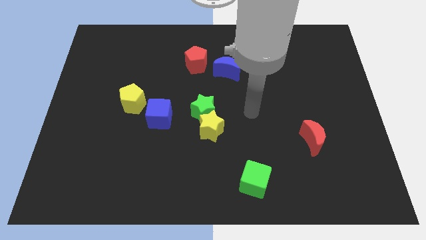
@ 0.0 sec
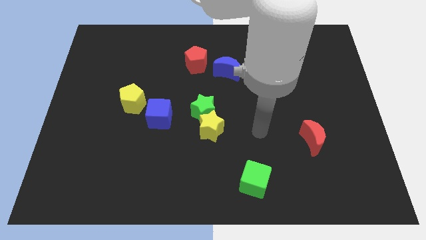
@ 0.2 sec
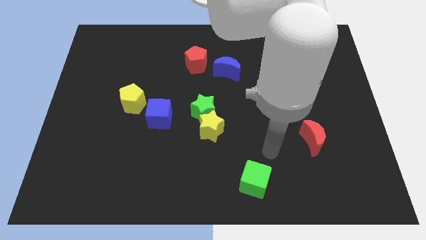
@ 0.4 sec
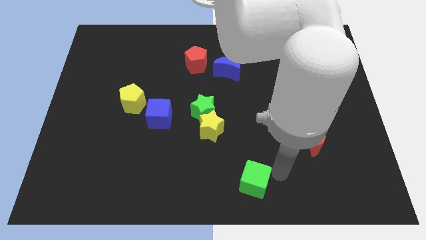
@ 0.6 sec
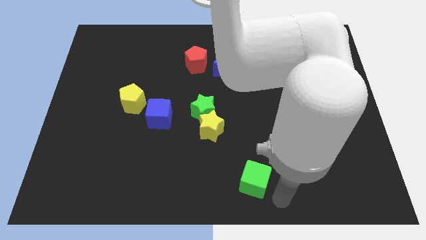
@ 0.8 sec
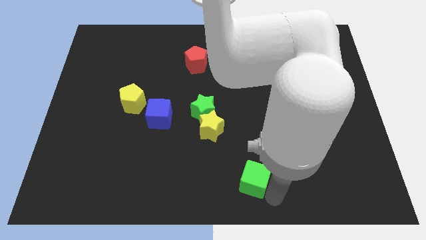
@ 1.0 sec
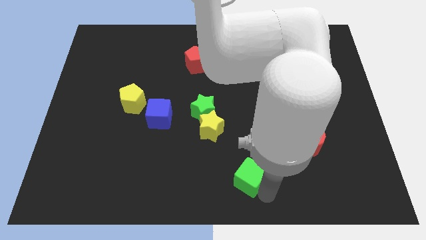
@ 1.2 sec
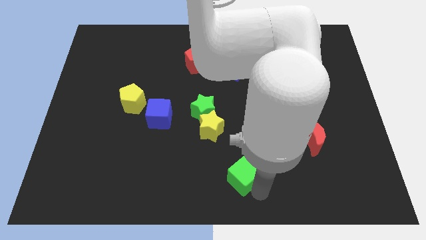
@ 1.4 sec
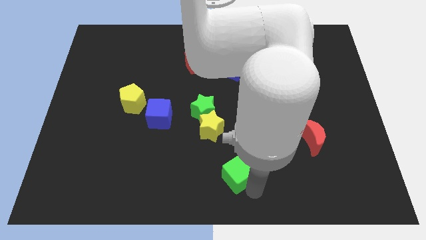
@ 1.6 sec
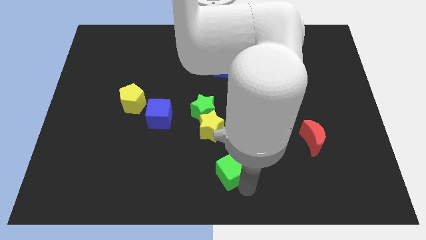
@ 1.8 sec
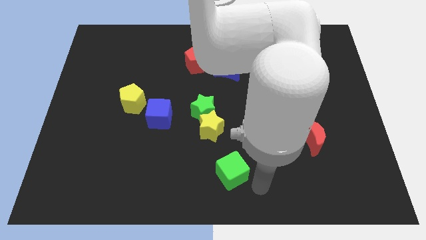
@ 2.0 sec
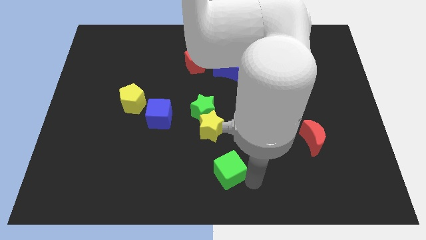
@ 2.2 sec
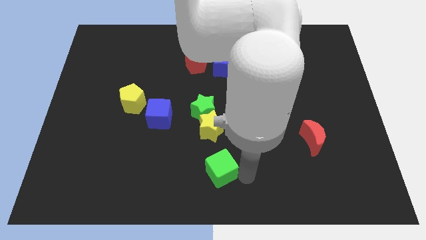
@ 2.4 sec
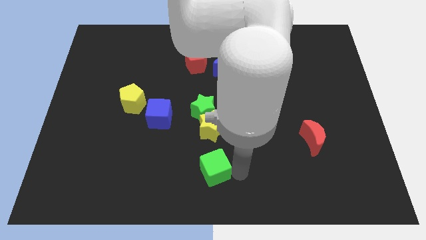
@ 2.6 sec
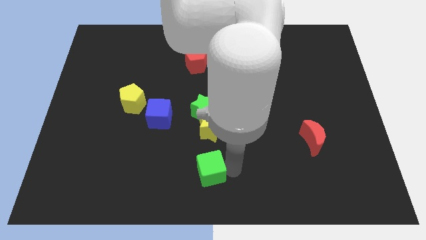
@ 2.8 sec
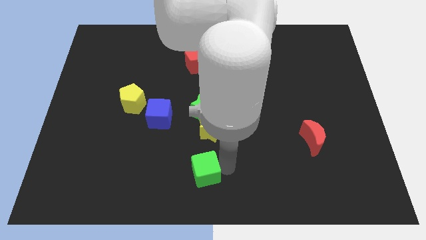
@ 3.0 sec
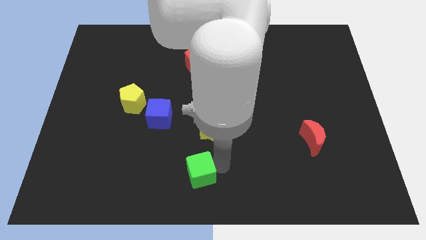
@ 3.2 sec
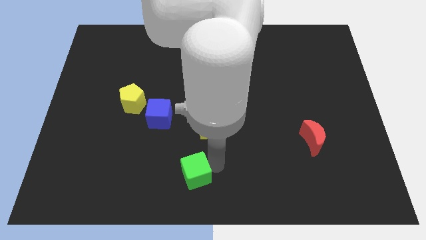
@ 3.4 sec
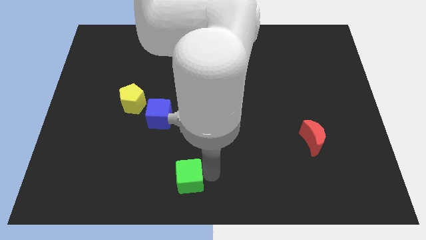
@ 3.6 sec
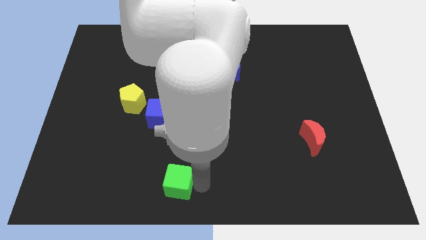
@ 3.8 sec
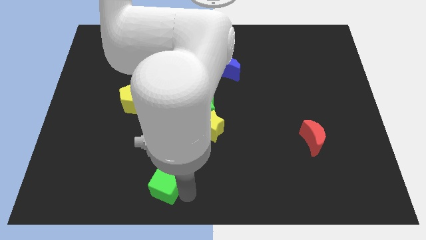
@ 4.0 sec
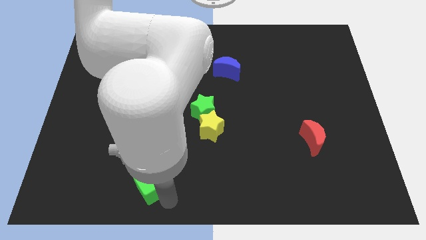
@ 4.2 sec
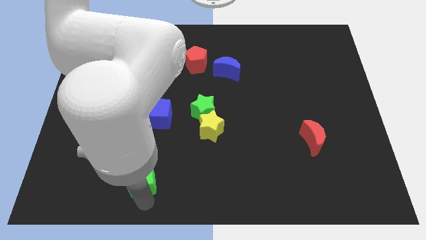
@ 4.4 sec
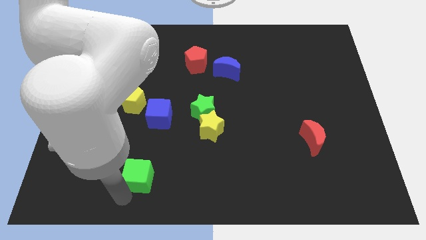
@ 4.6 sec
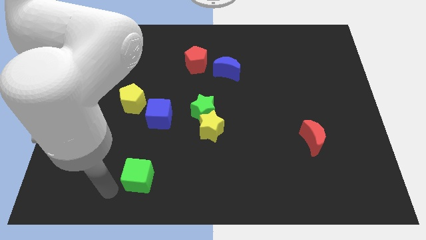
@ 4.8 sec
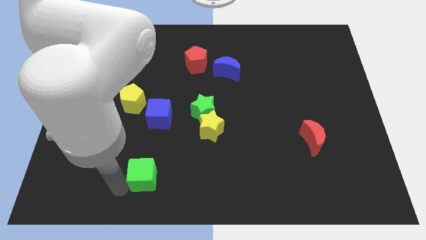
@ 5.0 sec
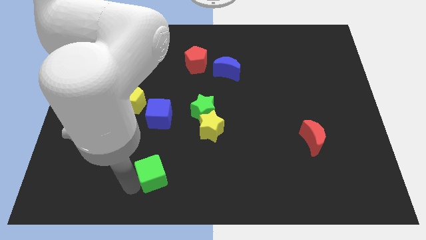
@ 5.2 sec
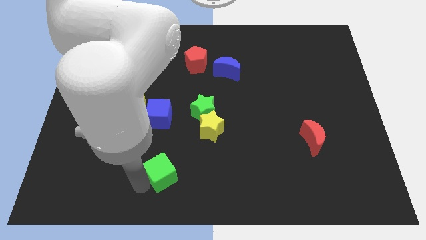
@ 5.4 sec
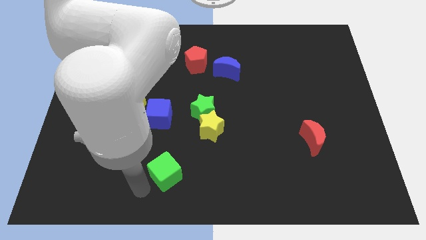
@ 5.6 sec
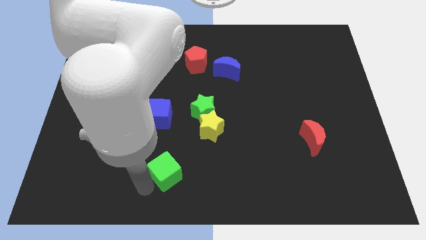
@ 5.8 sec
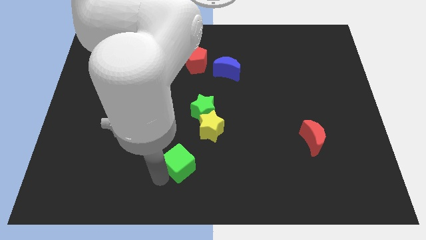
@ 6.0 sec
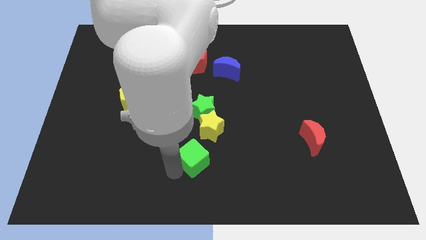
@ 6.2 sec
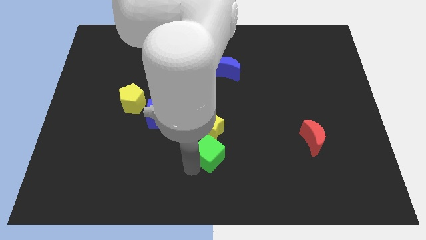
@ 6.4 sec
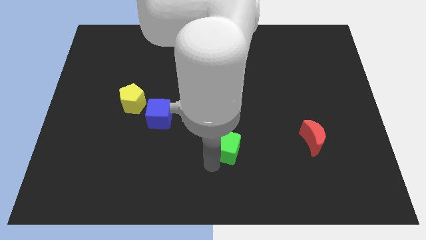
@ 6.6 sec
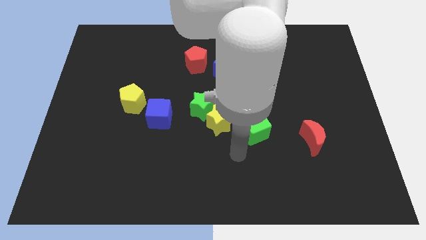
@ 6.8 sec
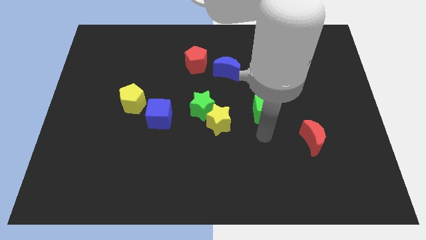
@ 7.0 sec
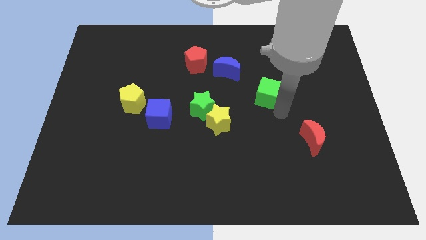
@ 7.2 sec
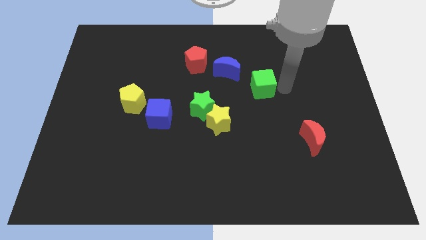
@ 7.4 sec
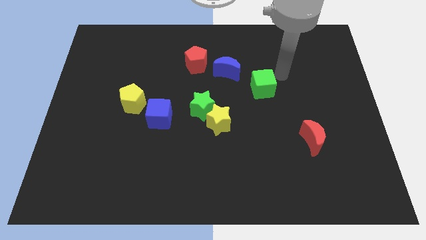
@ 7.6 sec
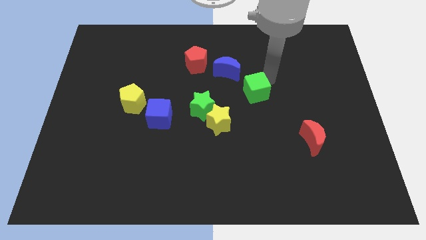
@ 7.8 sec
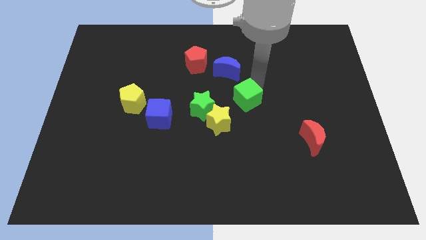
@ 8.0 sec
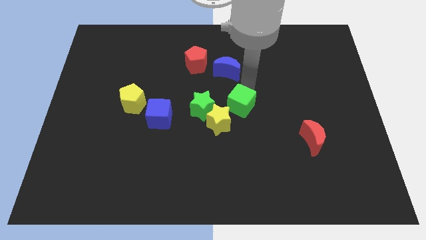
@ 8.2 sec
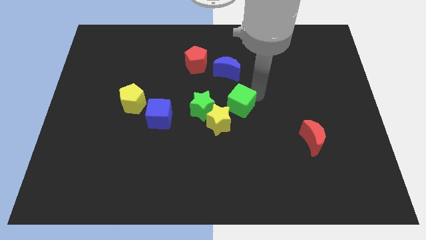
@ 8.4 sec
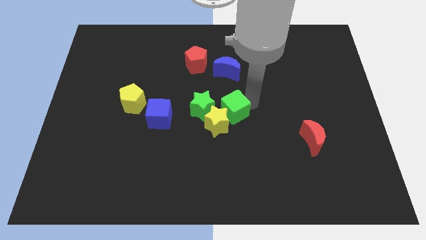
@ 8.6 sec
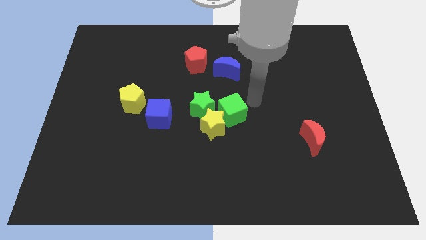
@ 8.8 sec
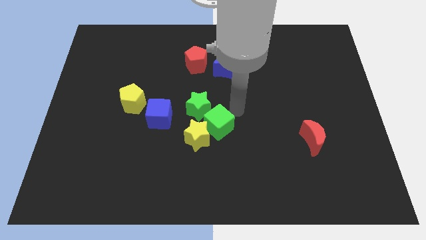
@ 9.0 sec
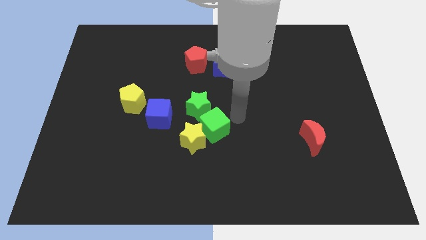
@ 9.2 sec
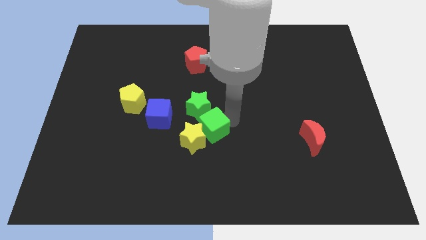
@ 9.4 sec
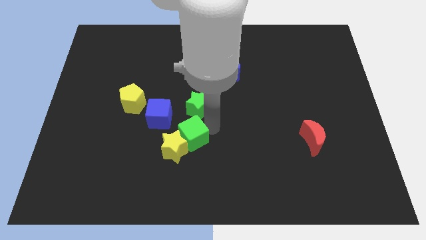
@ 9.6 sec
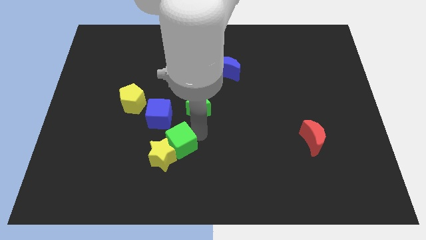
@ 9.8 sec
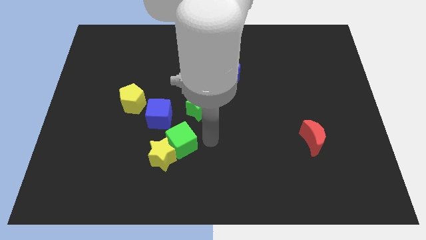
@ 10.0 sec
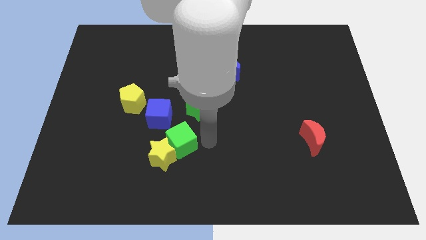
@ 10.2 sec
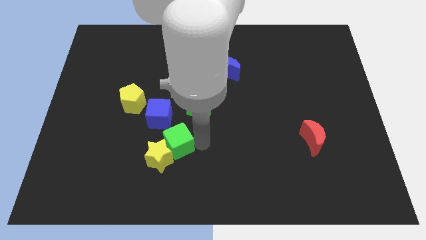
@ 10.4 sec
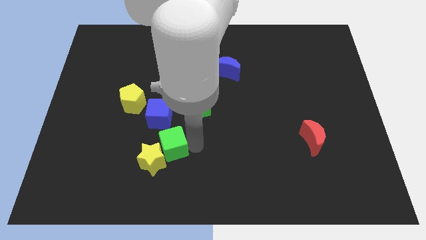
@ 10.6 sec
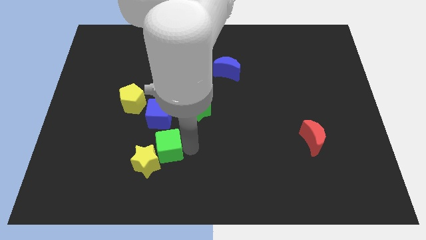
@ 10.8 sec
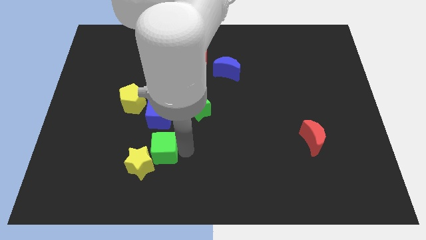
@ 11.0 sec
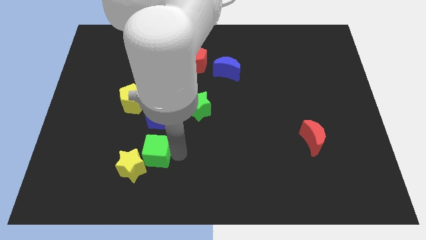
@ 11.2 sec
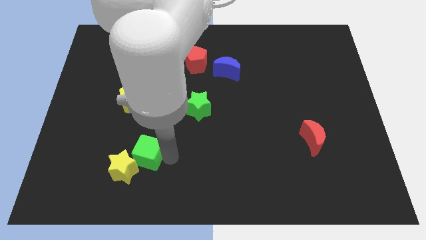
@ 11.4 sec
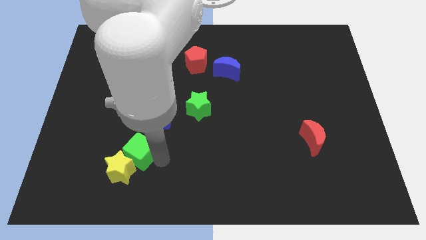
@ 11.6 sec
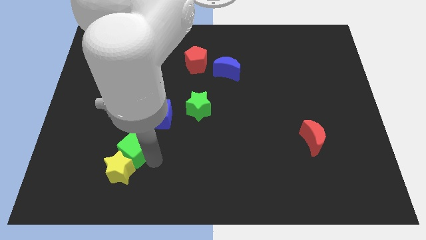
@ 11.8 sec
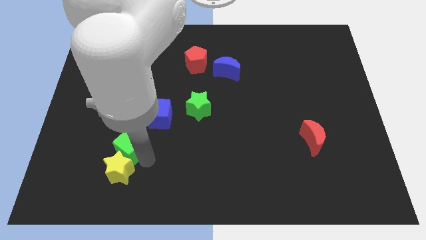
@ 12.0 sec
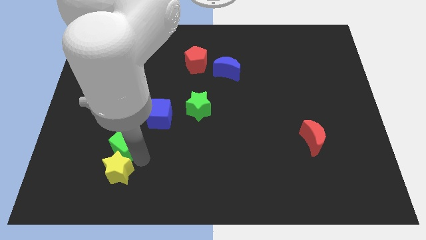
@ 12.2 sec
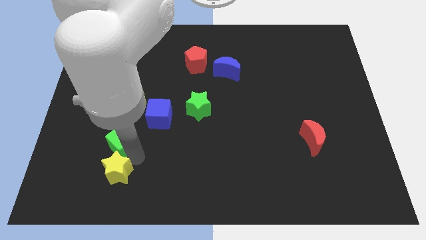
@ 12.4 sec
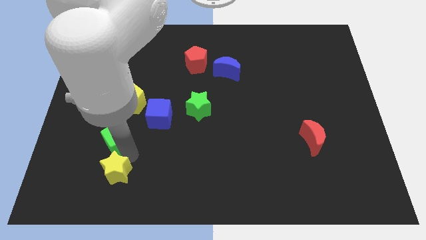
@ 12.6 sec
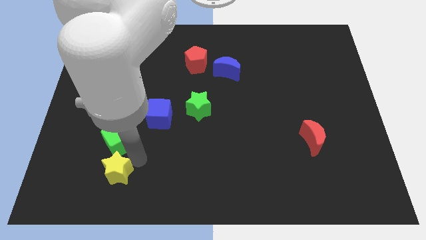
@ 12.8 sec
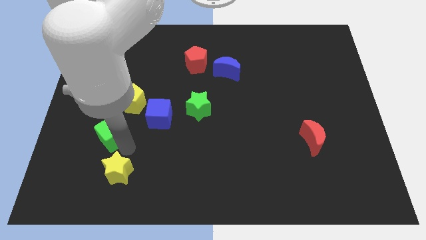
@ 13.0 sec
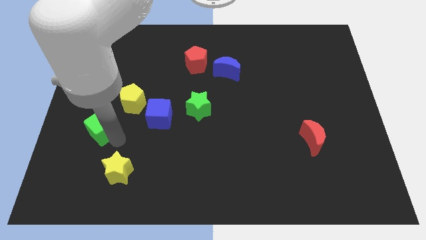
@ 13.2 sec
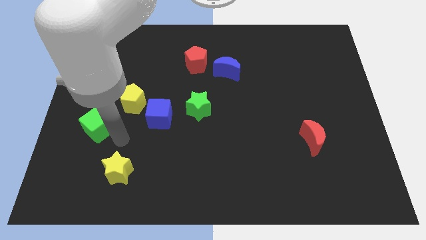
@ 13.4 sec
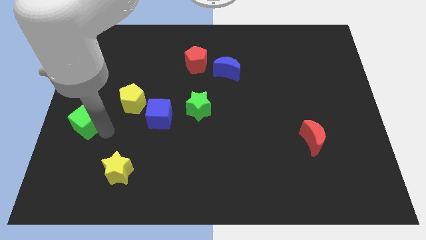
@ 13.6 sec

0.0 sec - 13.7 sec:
slide the green cube to the left side of the board
